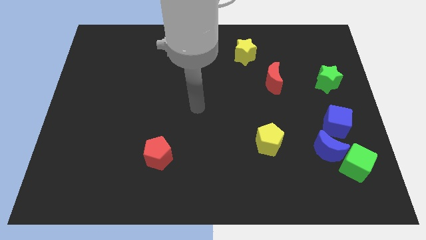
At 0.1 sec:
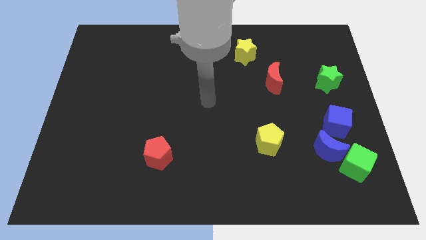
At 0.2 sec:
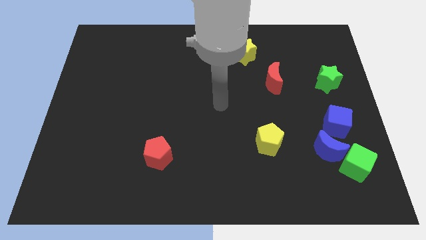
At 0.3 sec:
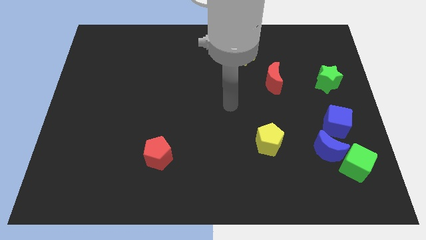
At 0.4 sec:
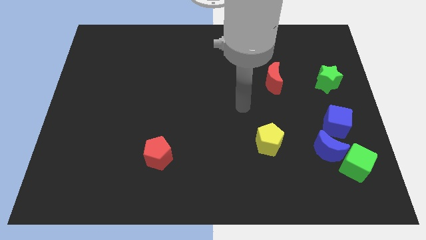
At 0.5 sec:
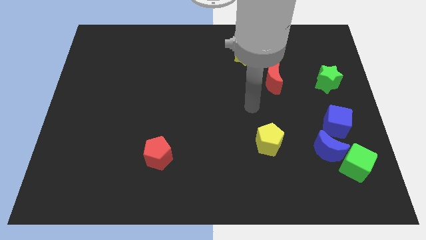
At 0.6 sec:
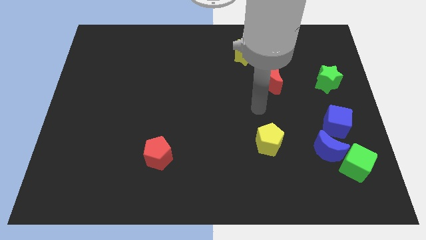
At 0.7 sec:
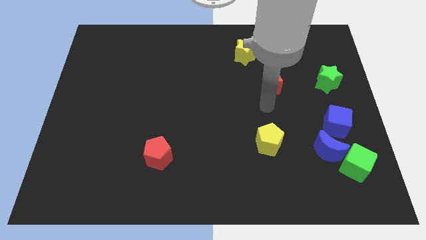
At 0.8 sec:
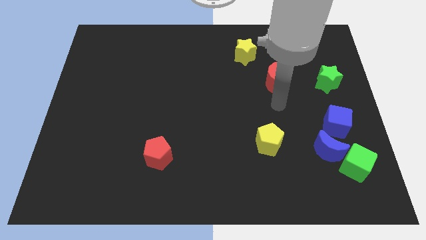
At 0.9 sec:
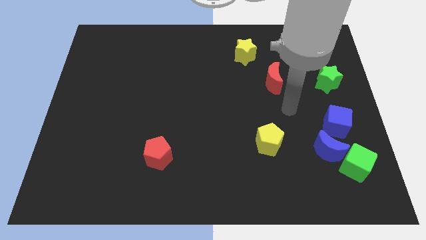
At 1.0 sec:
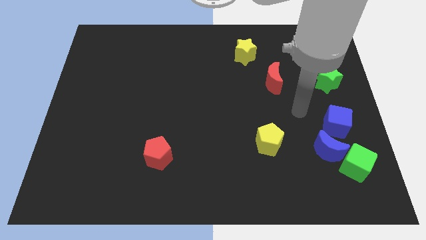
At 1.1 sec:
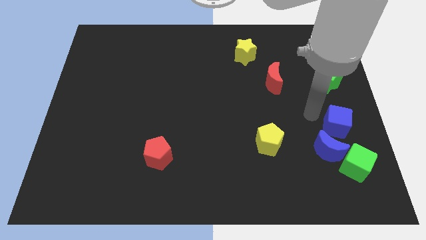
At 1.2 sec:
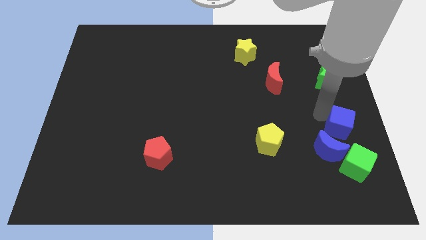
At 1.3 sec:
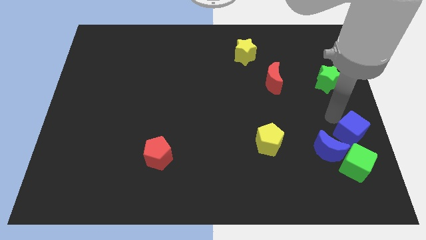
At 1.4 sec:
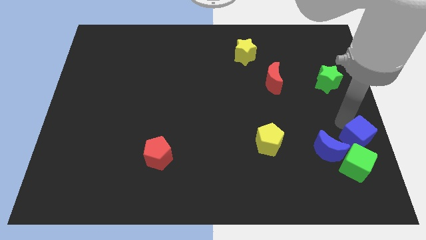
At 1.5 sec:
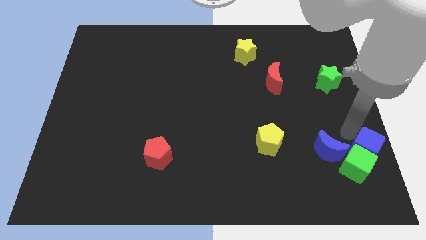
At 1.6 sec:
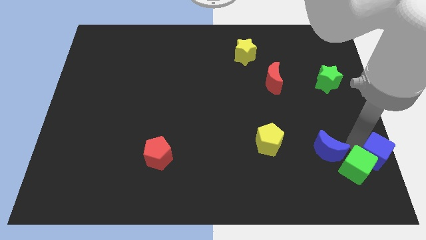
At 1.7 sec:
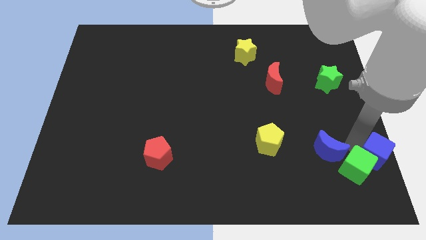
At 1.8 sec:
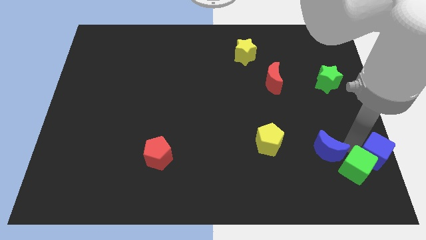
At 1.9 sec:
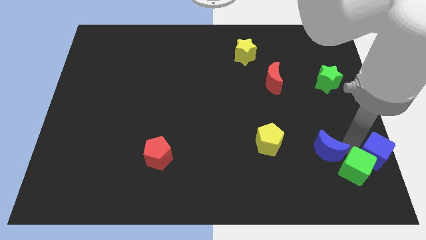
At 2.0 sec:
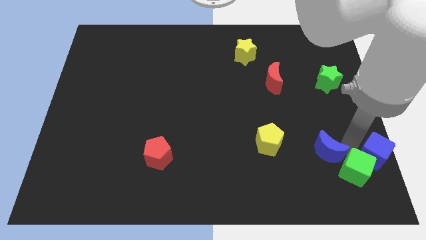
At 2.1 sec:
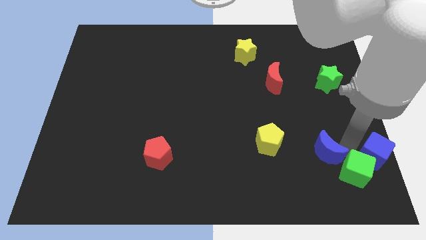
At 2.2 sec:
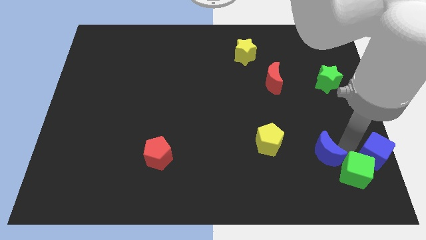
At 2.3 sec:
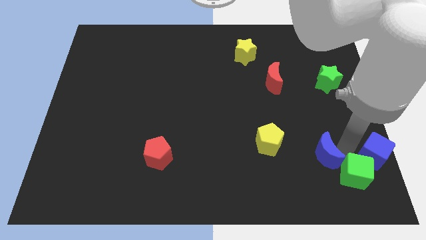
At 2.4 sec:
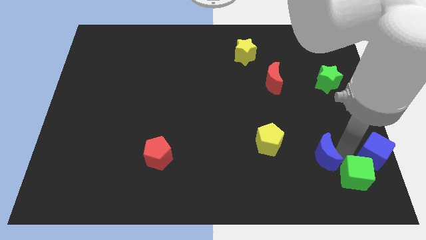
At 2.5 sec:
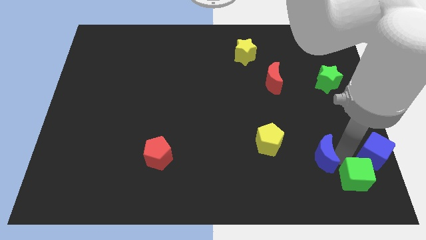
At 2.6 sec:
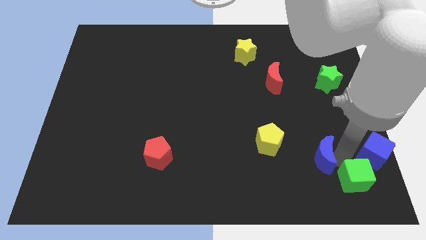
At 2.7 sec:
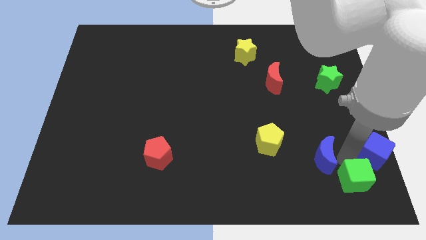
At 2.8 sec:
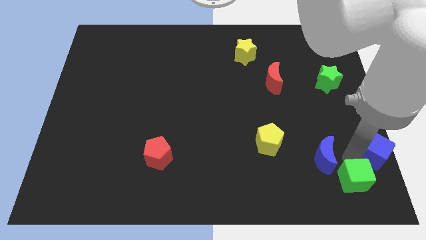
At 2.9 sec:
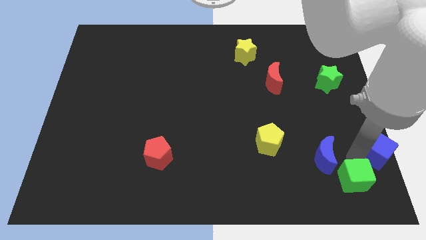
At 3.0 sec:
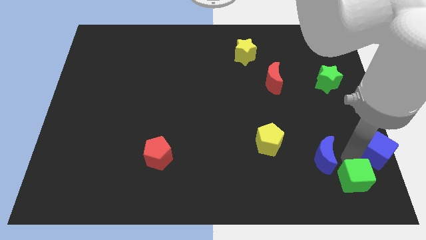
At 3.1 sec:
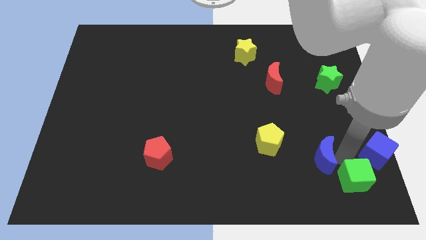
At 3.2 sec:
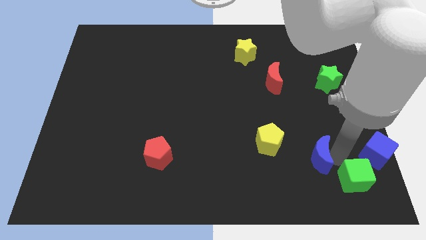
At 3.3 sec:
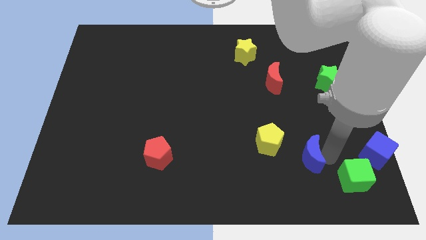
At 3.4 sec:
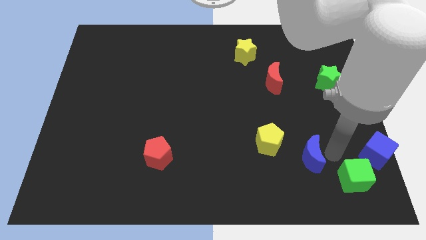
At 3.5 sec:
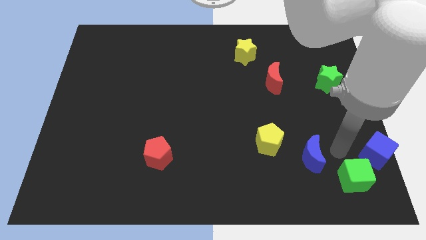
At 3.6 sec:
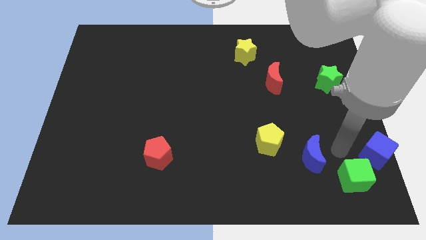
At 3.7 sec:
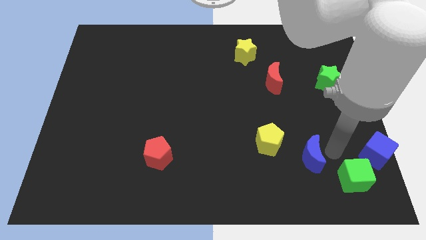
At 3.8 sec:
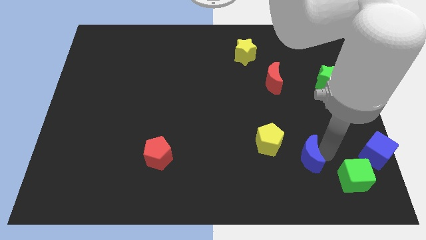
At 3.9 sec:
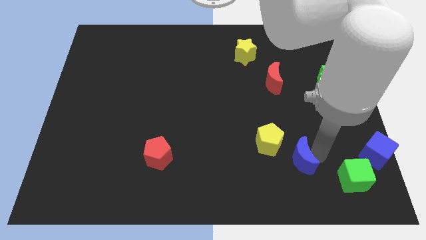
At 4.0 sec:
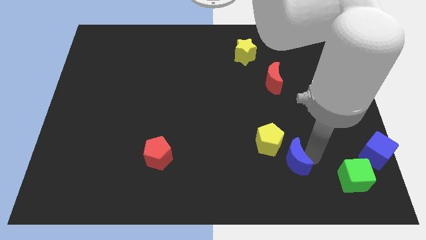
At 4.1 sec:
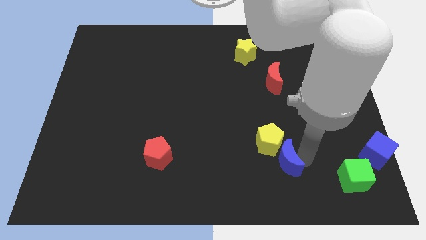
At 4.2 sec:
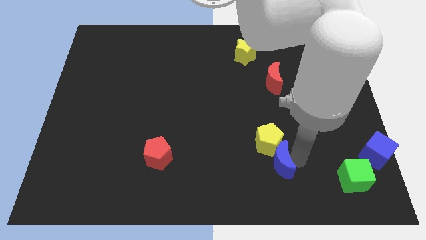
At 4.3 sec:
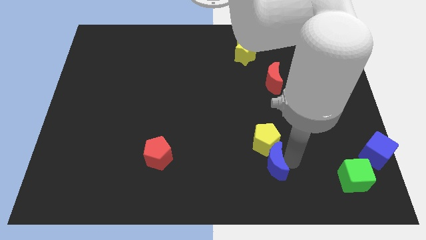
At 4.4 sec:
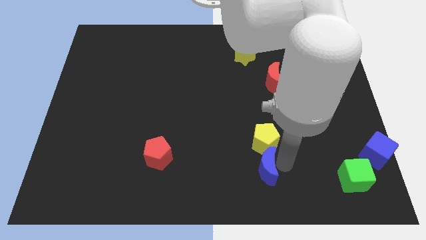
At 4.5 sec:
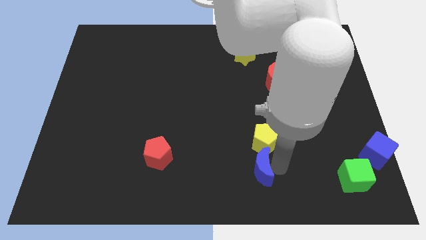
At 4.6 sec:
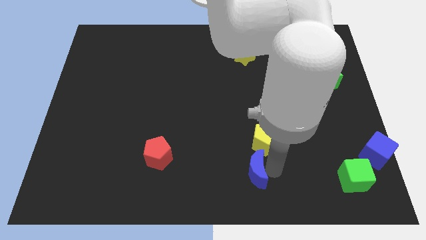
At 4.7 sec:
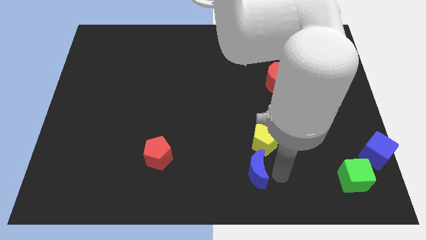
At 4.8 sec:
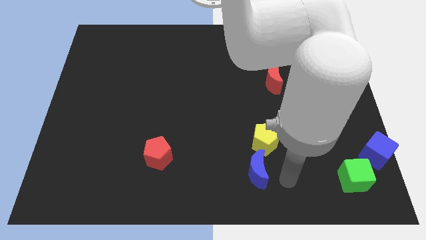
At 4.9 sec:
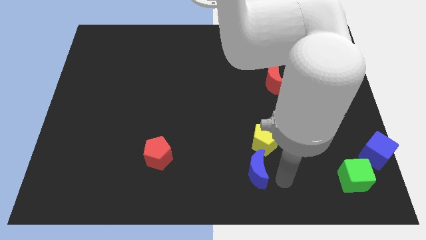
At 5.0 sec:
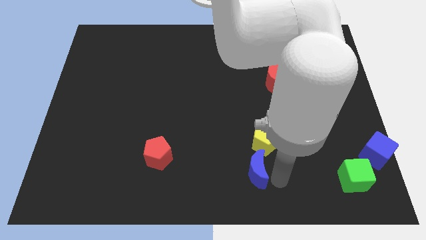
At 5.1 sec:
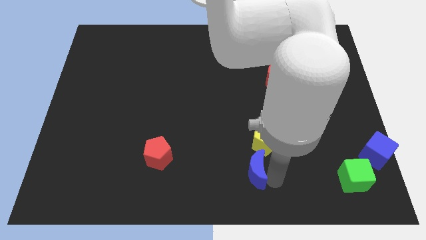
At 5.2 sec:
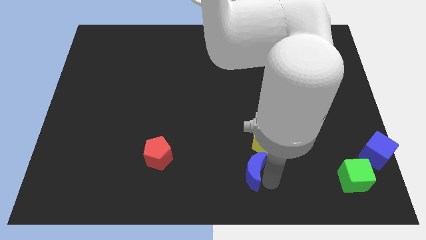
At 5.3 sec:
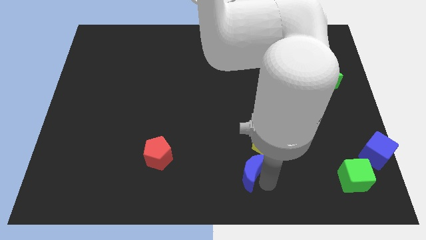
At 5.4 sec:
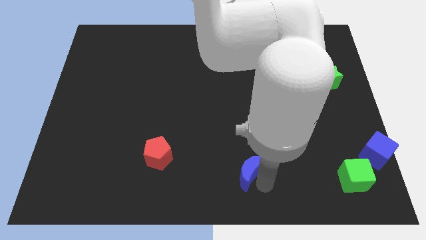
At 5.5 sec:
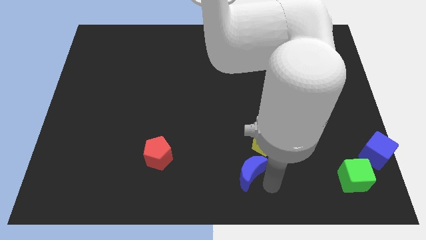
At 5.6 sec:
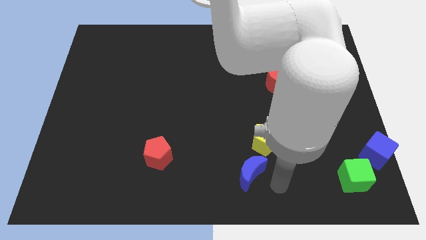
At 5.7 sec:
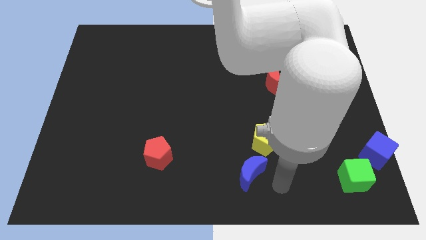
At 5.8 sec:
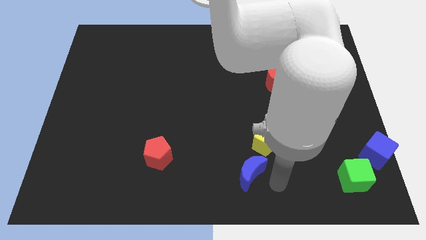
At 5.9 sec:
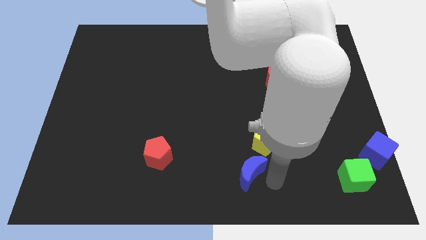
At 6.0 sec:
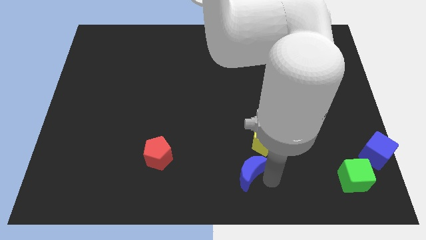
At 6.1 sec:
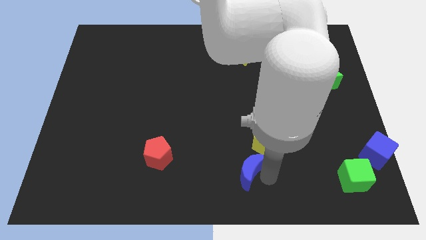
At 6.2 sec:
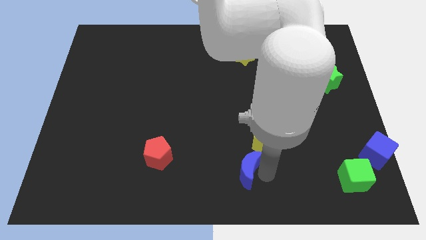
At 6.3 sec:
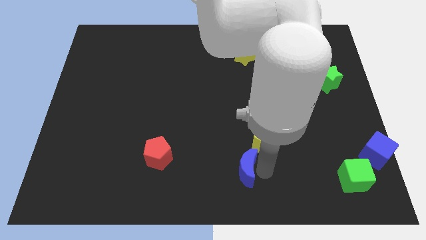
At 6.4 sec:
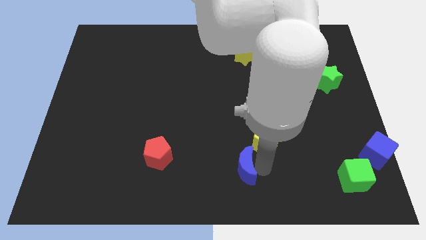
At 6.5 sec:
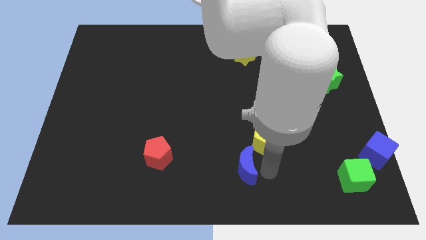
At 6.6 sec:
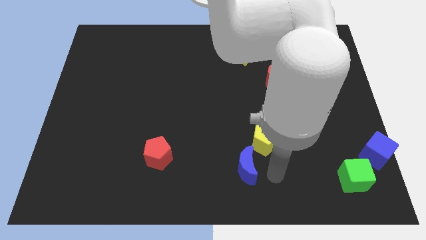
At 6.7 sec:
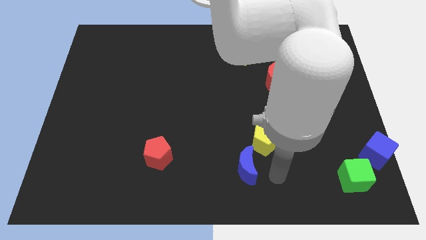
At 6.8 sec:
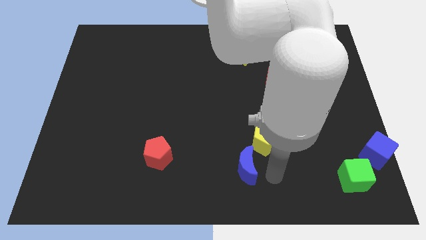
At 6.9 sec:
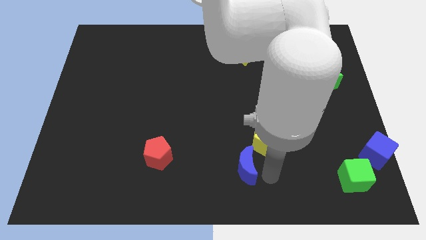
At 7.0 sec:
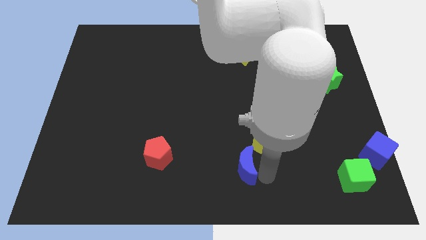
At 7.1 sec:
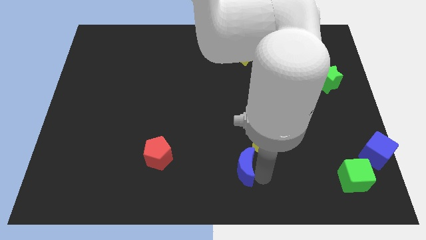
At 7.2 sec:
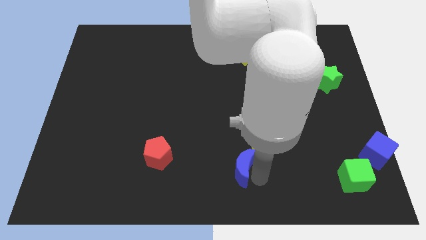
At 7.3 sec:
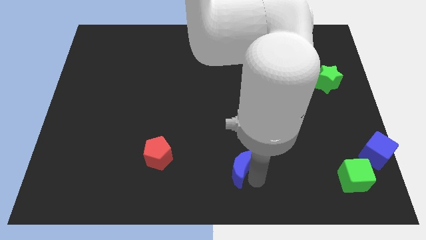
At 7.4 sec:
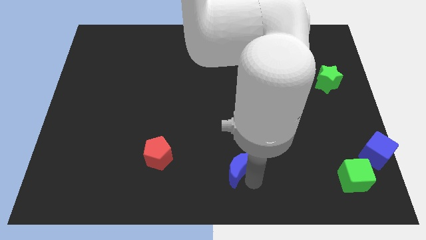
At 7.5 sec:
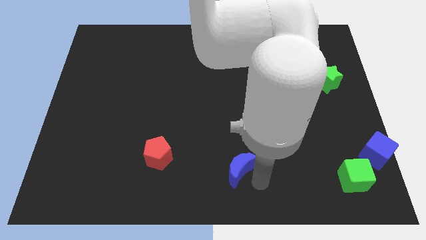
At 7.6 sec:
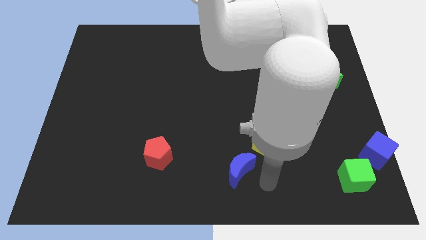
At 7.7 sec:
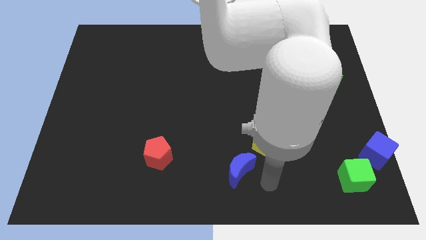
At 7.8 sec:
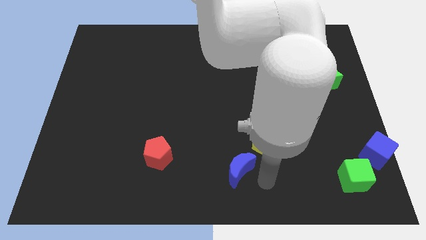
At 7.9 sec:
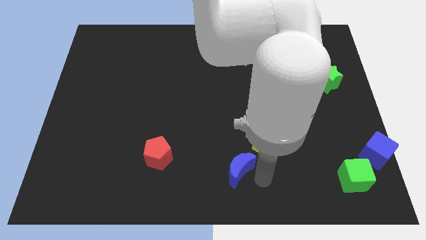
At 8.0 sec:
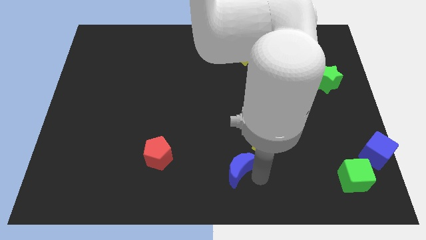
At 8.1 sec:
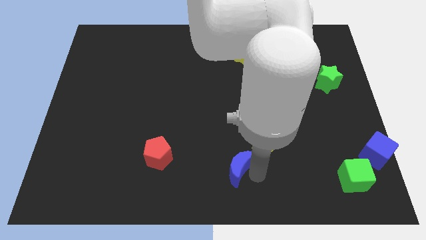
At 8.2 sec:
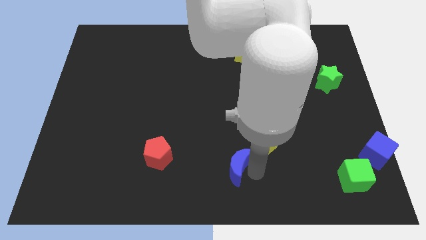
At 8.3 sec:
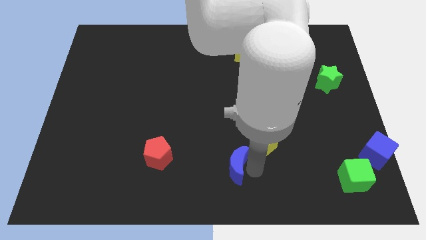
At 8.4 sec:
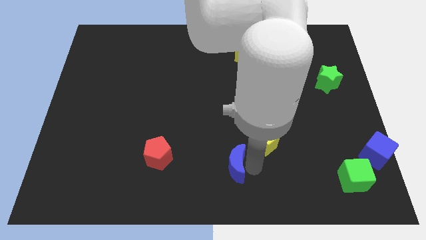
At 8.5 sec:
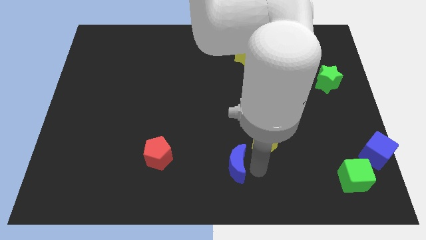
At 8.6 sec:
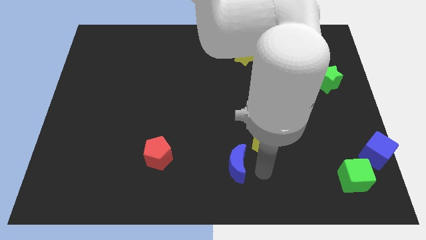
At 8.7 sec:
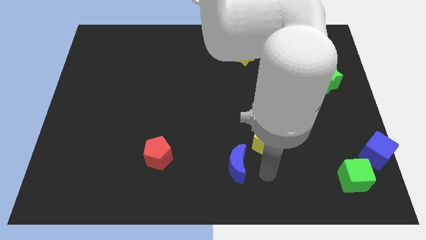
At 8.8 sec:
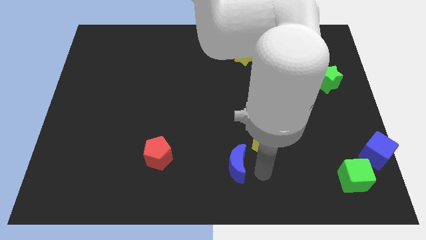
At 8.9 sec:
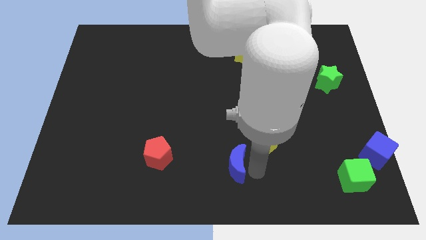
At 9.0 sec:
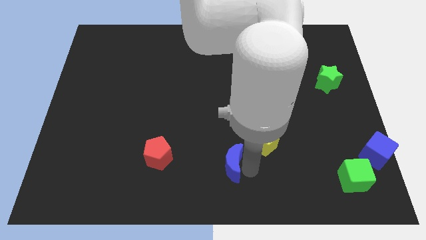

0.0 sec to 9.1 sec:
slide the blue moon to the left
